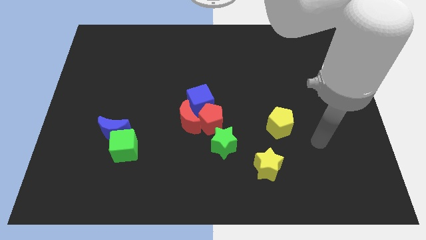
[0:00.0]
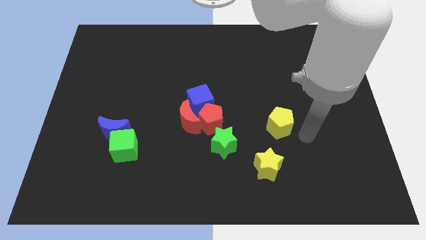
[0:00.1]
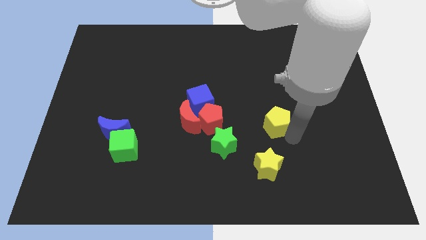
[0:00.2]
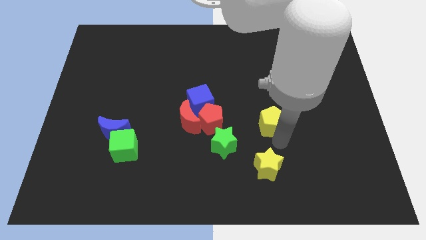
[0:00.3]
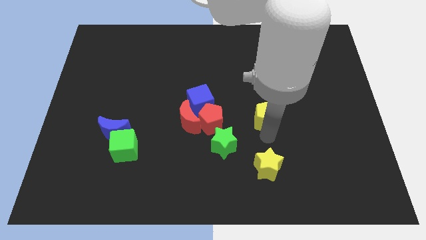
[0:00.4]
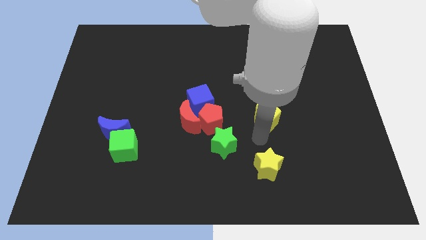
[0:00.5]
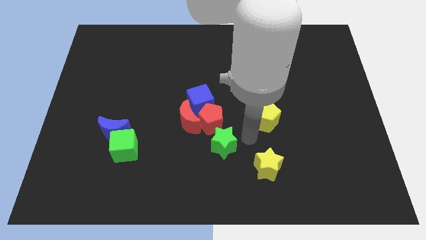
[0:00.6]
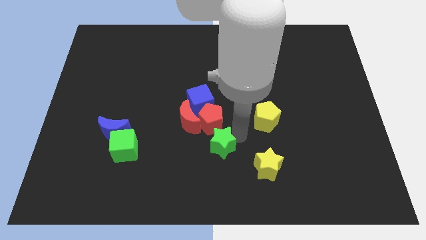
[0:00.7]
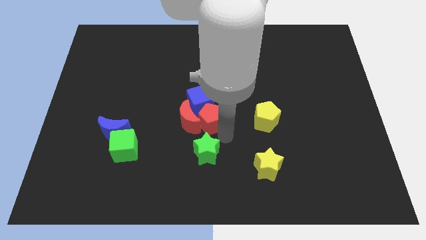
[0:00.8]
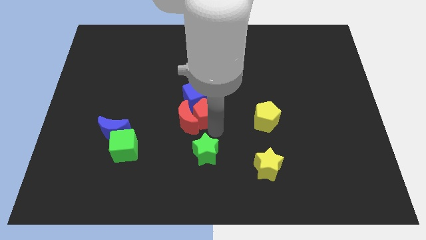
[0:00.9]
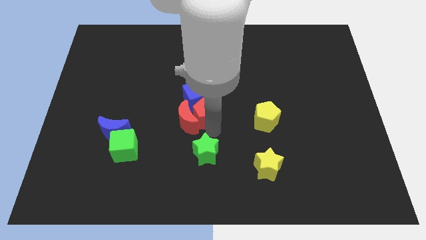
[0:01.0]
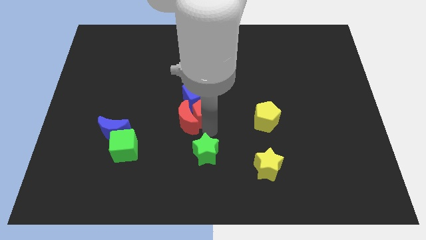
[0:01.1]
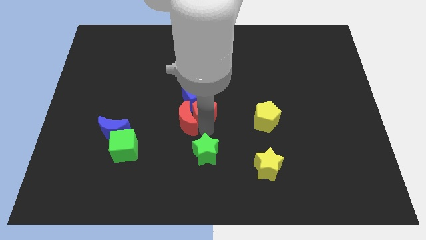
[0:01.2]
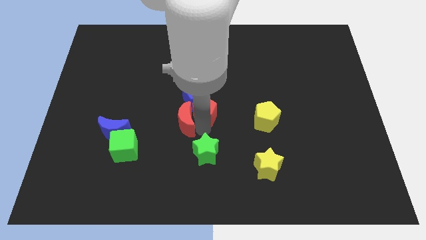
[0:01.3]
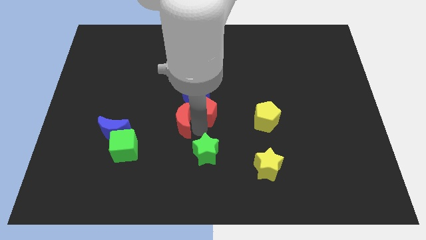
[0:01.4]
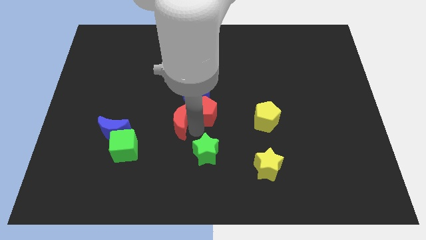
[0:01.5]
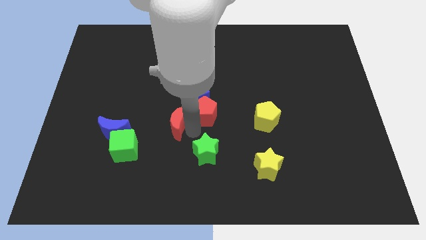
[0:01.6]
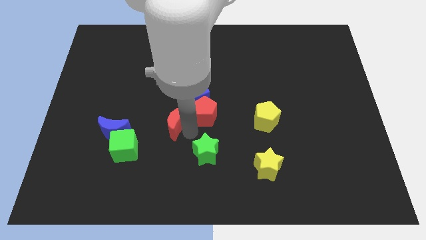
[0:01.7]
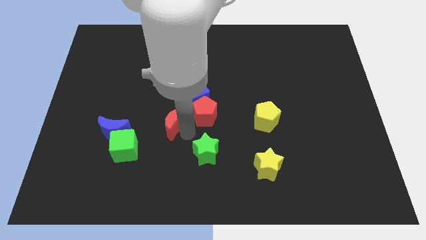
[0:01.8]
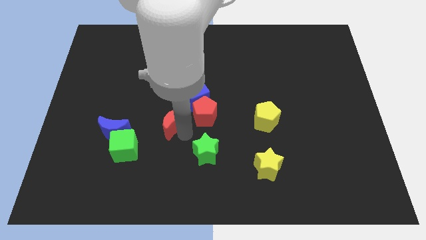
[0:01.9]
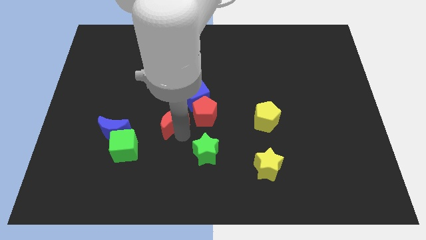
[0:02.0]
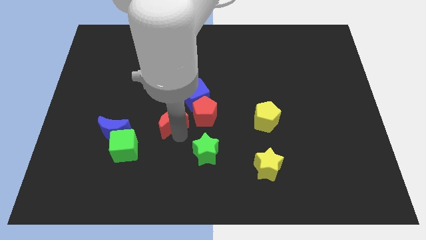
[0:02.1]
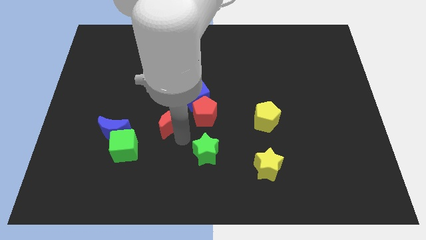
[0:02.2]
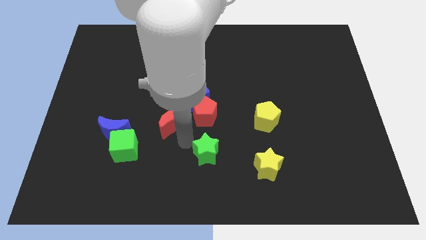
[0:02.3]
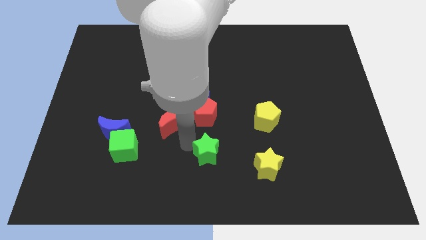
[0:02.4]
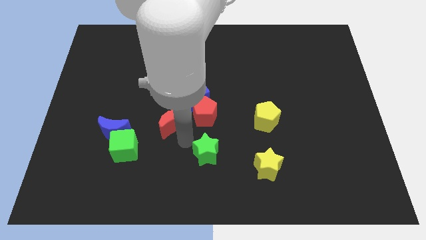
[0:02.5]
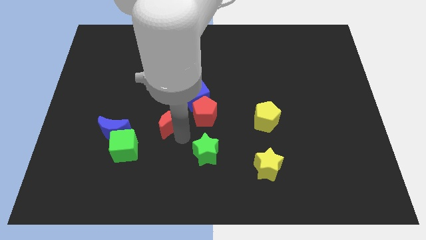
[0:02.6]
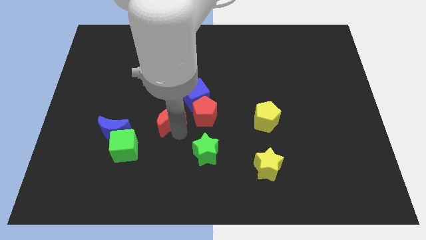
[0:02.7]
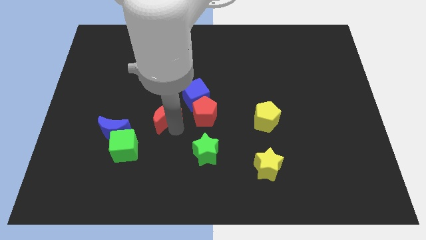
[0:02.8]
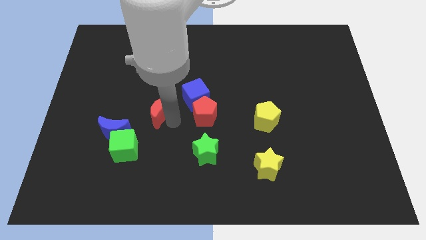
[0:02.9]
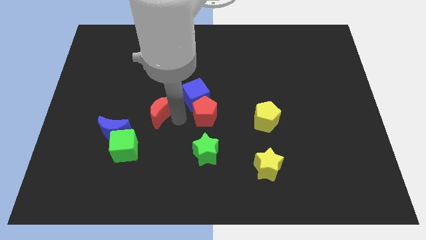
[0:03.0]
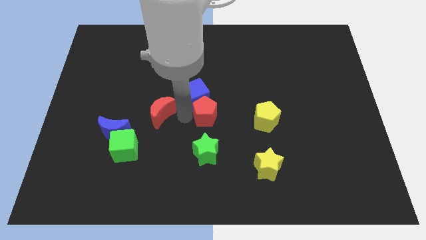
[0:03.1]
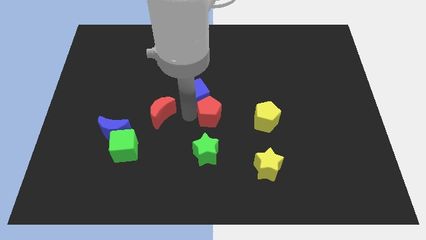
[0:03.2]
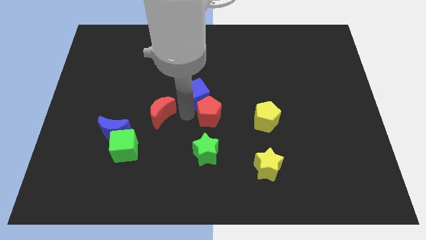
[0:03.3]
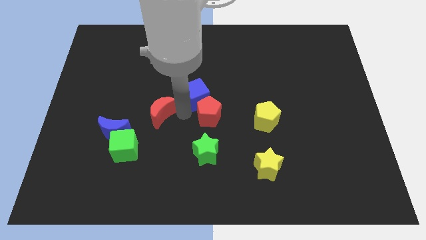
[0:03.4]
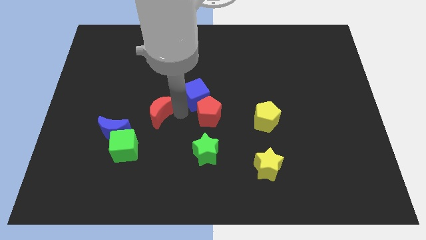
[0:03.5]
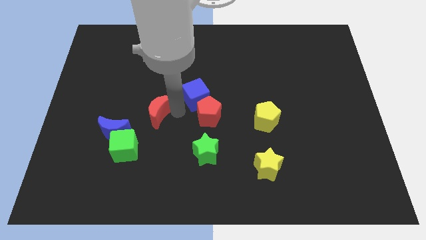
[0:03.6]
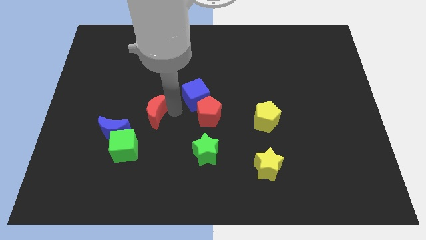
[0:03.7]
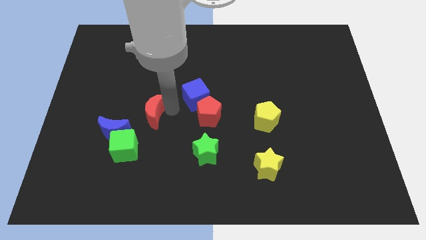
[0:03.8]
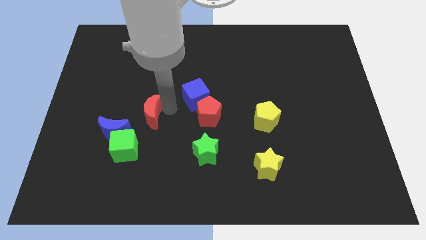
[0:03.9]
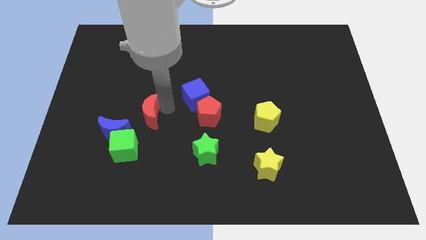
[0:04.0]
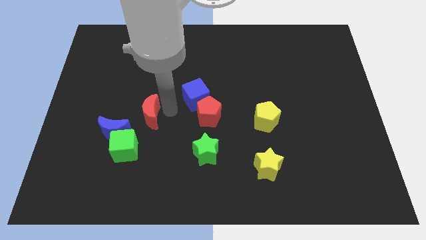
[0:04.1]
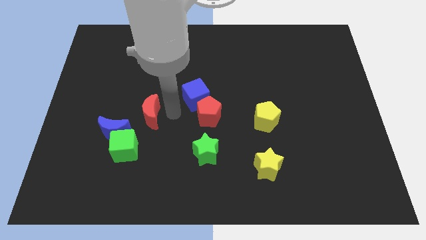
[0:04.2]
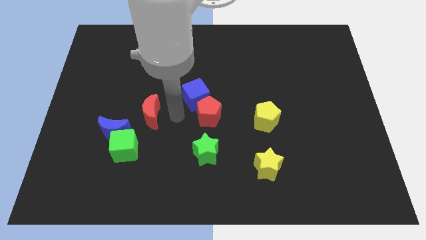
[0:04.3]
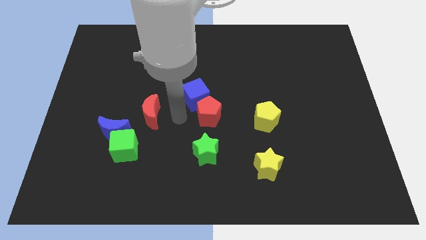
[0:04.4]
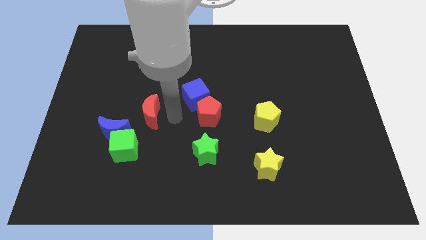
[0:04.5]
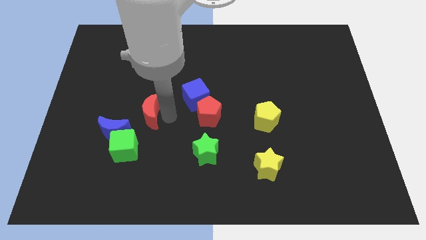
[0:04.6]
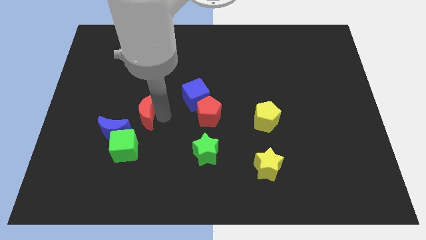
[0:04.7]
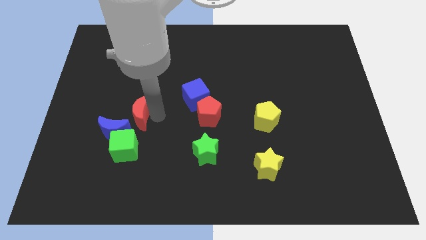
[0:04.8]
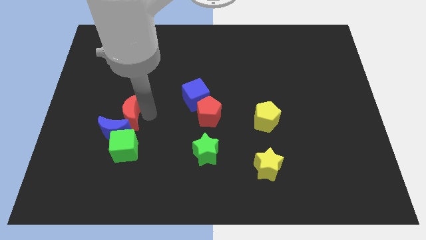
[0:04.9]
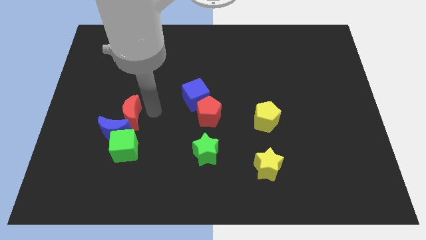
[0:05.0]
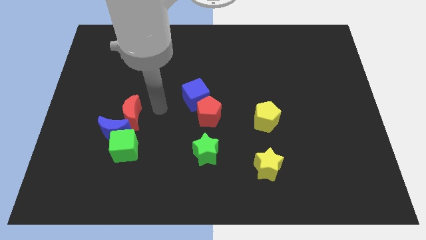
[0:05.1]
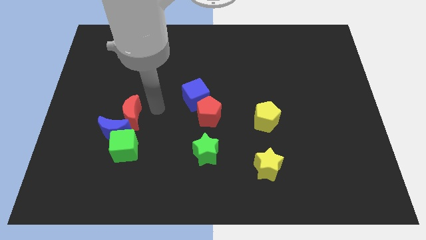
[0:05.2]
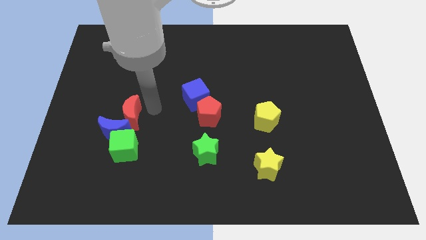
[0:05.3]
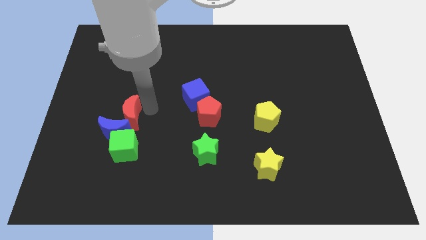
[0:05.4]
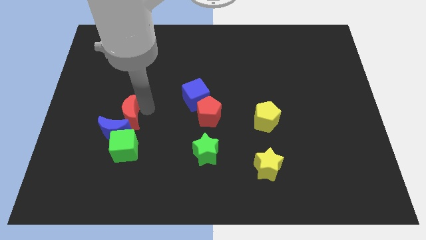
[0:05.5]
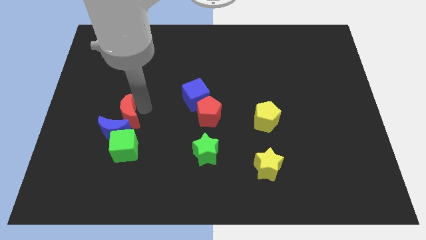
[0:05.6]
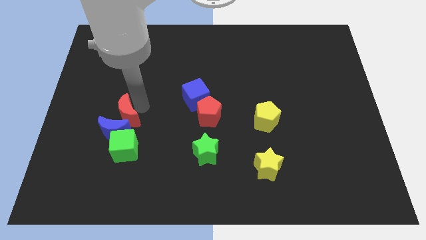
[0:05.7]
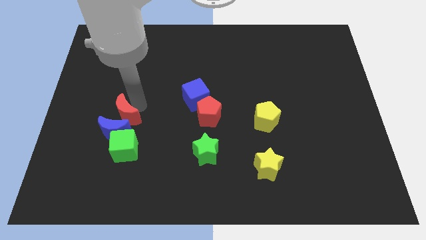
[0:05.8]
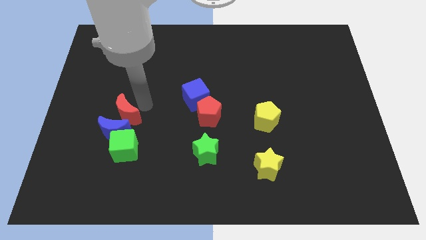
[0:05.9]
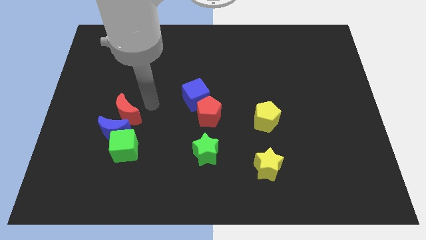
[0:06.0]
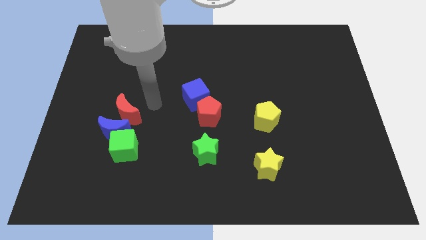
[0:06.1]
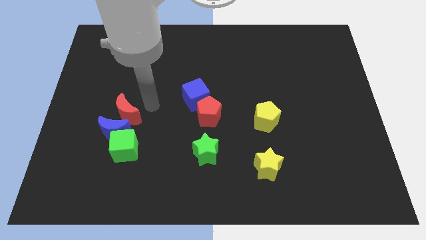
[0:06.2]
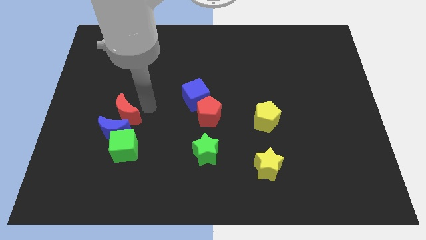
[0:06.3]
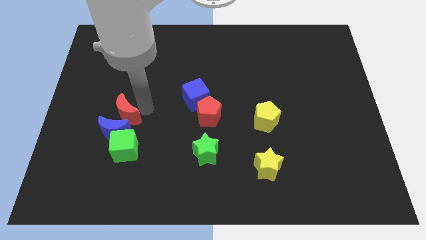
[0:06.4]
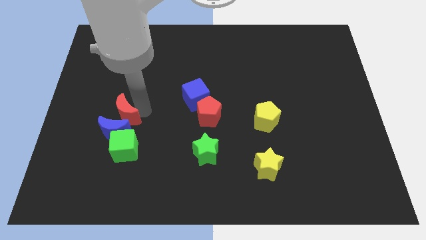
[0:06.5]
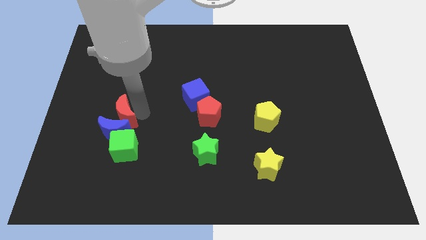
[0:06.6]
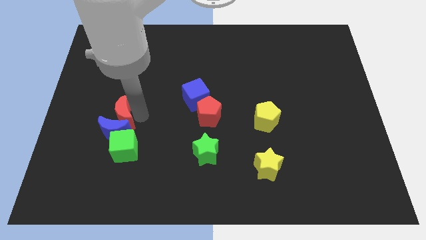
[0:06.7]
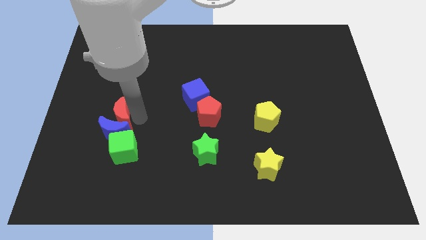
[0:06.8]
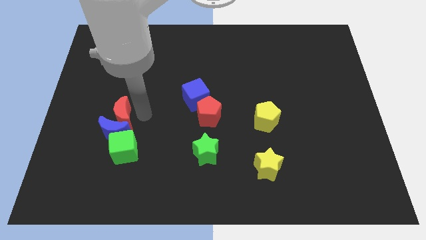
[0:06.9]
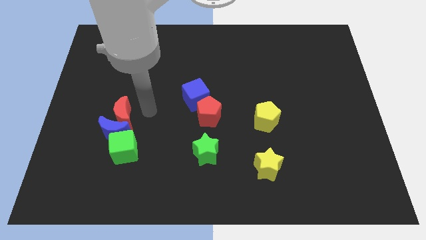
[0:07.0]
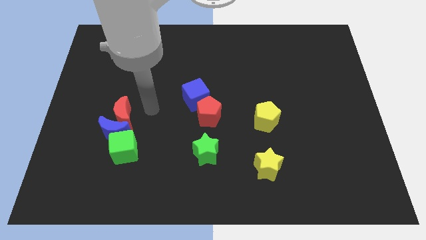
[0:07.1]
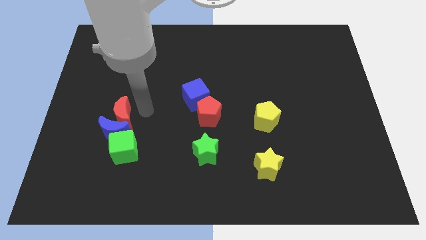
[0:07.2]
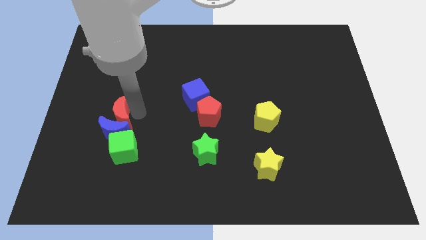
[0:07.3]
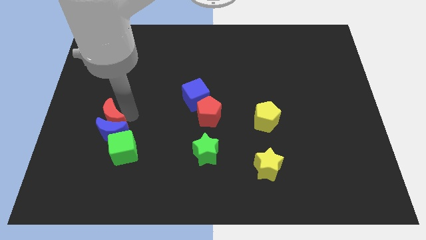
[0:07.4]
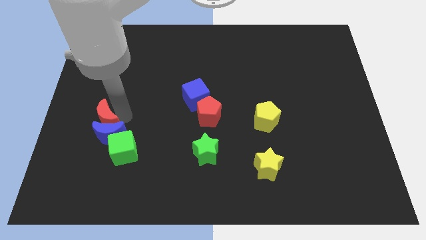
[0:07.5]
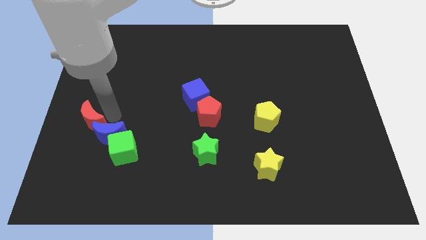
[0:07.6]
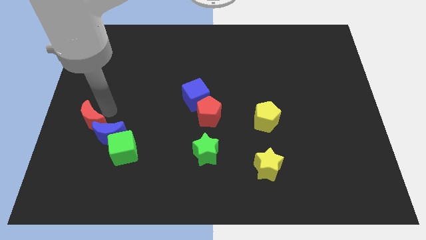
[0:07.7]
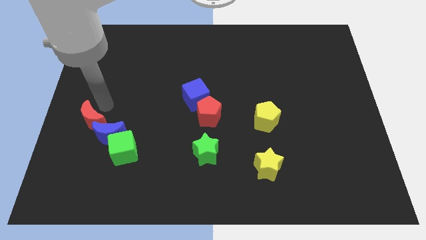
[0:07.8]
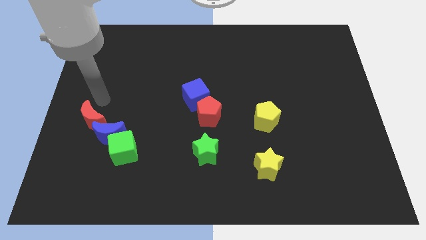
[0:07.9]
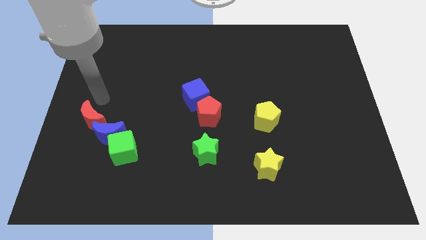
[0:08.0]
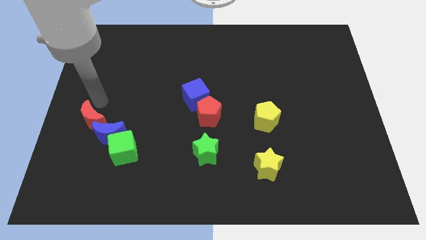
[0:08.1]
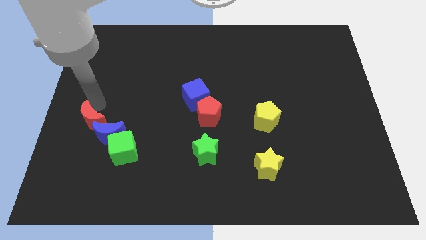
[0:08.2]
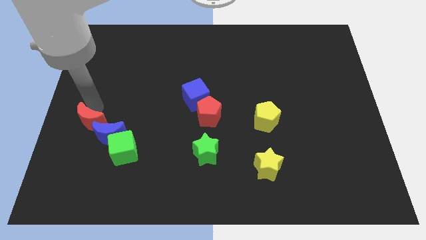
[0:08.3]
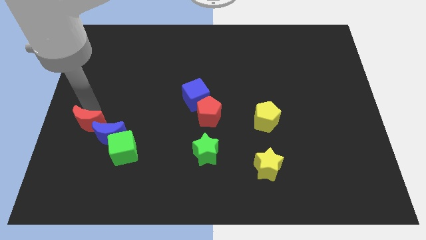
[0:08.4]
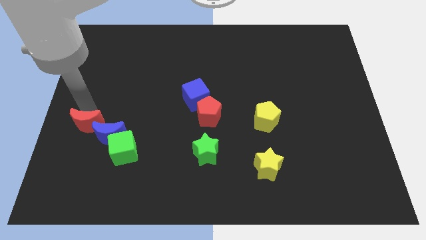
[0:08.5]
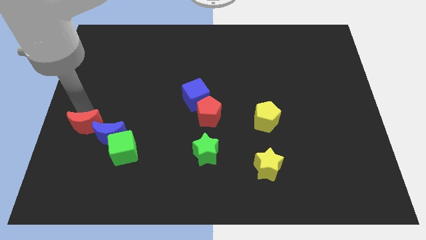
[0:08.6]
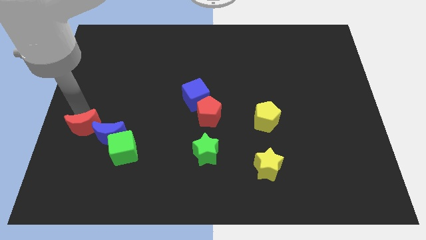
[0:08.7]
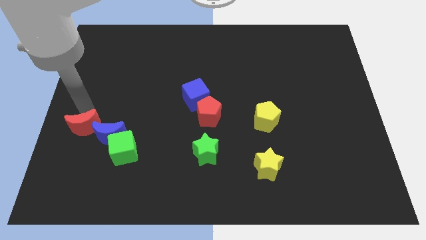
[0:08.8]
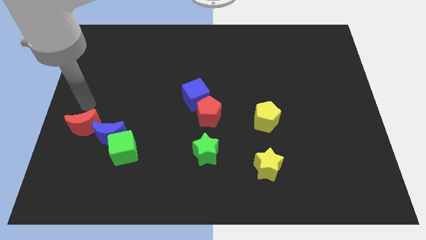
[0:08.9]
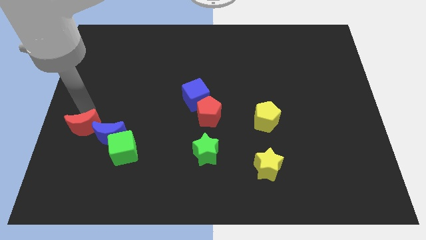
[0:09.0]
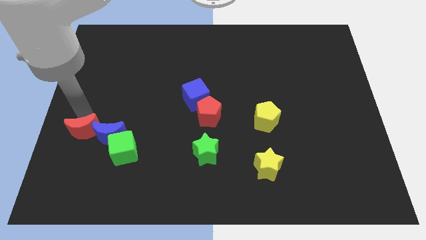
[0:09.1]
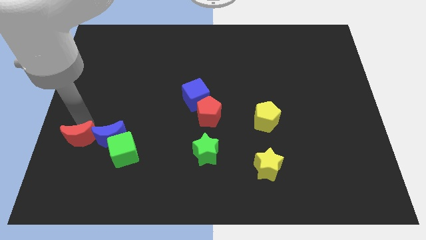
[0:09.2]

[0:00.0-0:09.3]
move the red moon to the bottom left of the blue moon
